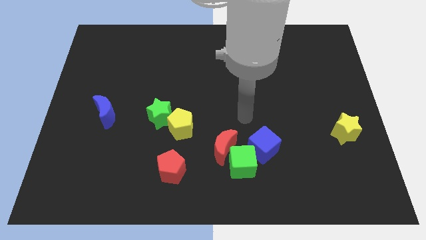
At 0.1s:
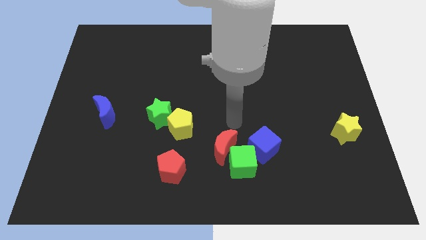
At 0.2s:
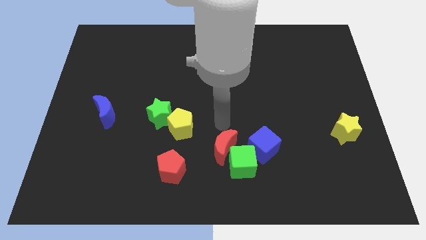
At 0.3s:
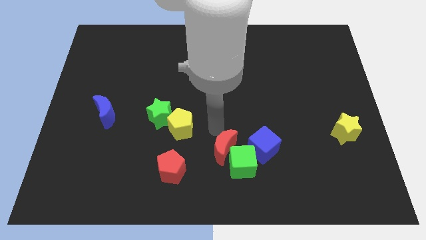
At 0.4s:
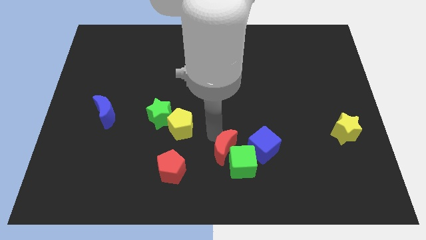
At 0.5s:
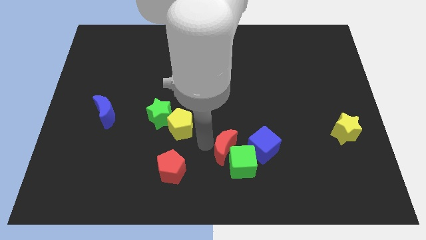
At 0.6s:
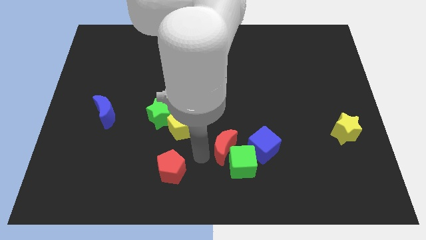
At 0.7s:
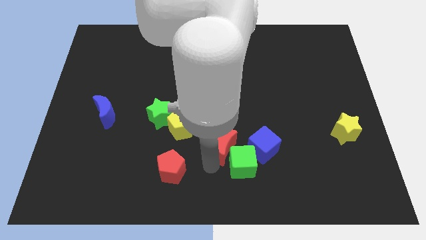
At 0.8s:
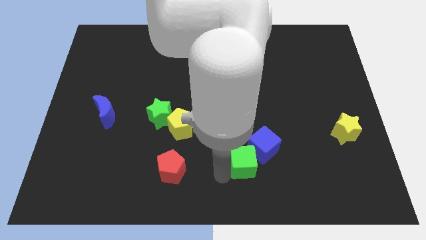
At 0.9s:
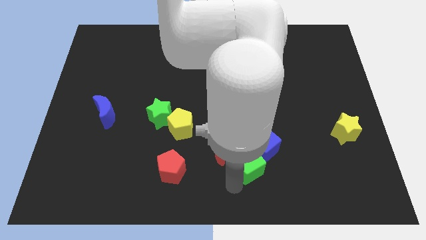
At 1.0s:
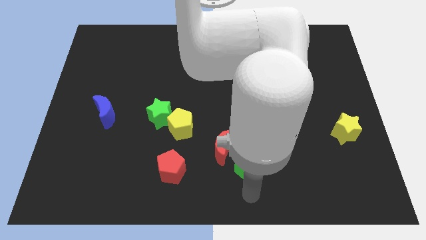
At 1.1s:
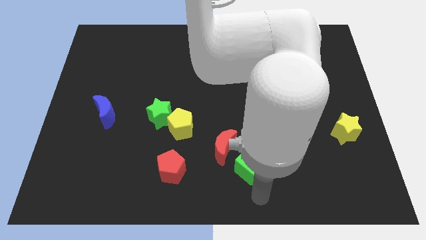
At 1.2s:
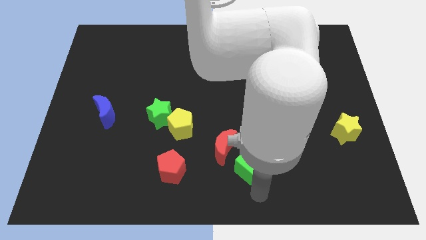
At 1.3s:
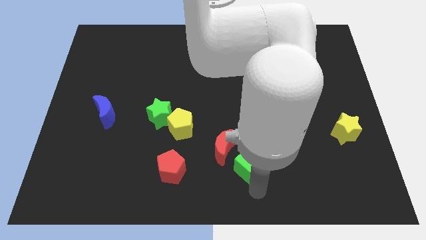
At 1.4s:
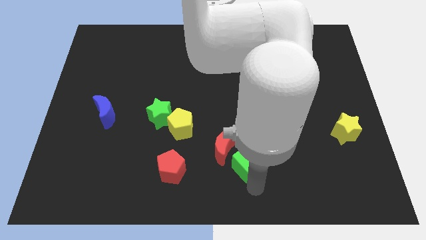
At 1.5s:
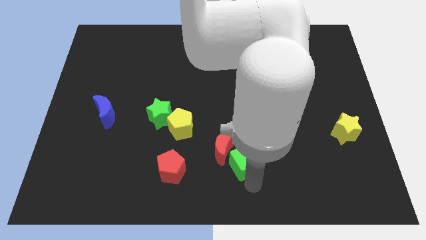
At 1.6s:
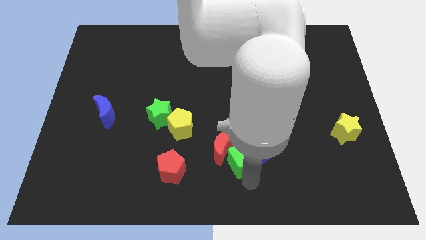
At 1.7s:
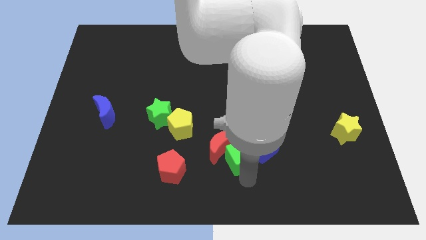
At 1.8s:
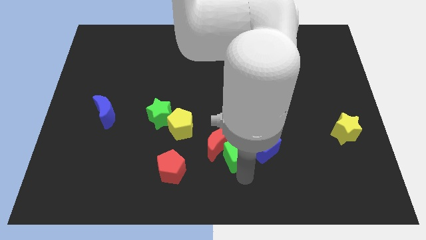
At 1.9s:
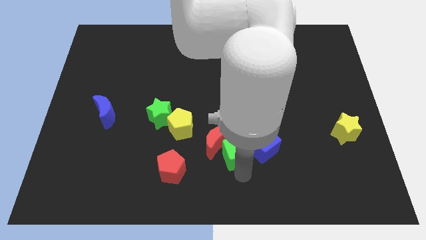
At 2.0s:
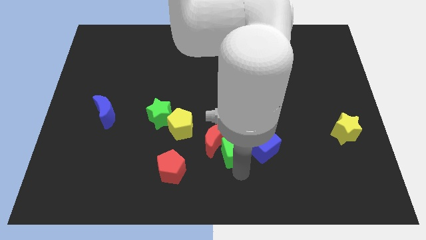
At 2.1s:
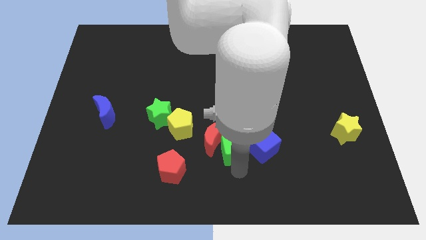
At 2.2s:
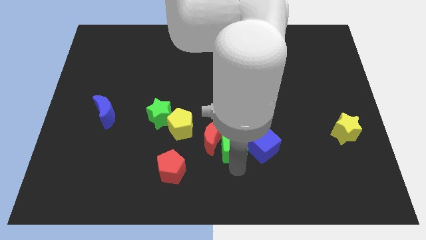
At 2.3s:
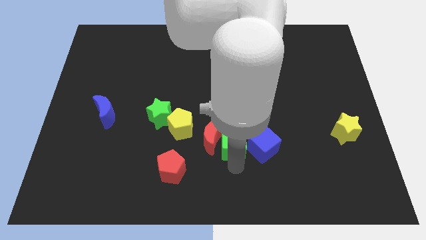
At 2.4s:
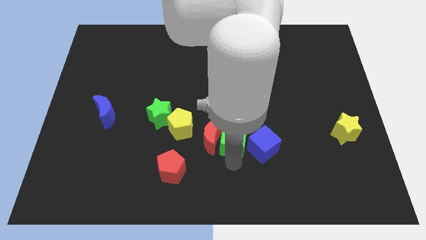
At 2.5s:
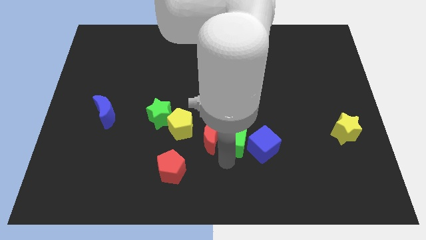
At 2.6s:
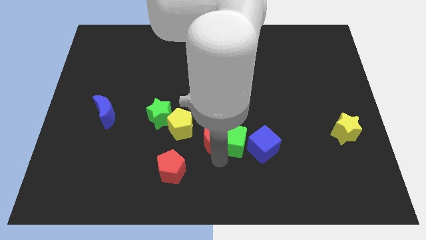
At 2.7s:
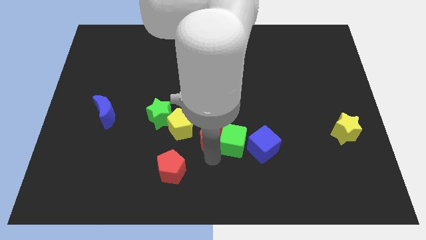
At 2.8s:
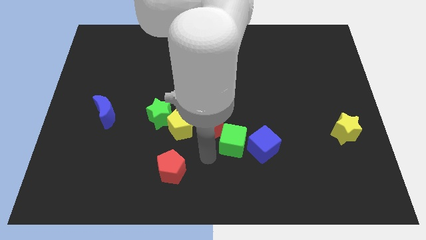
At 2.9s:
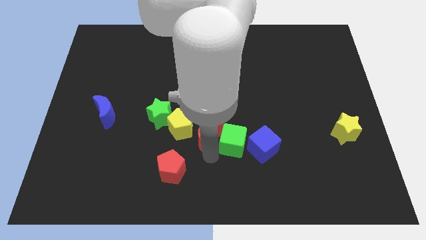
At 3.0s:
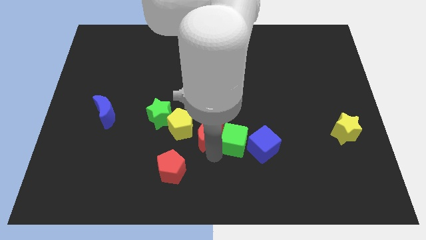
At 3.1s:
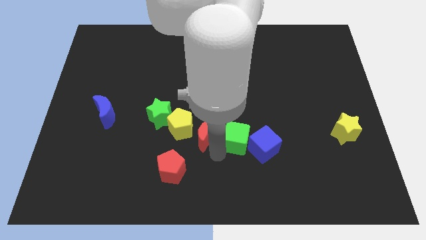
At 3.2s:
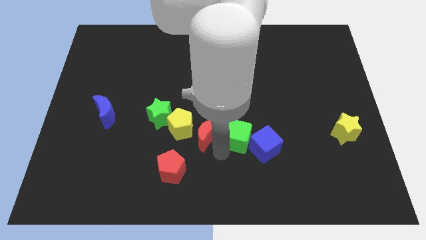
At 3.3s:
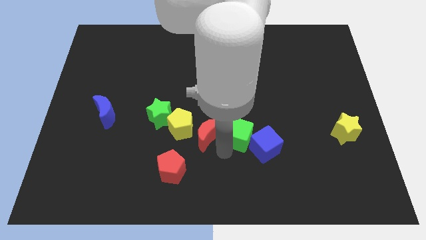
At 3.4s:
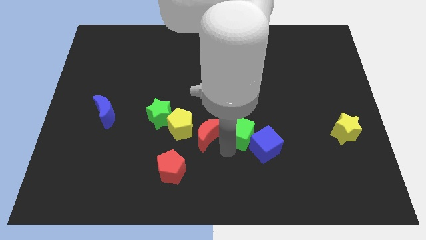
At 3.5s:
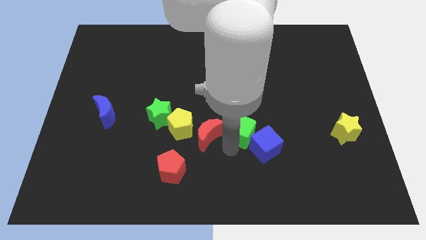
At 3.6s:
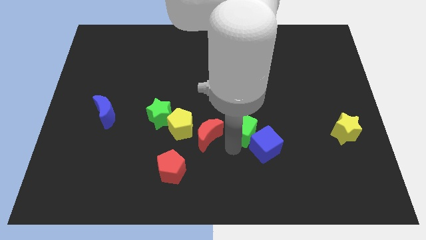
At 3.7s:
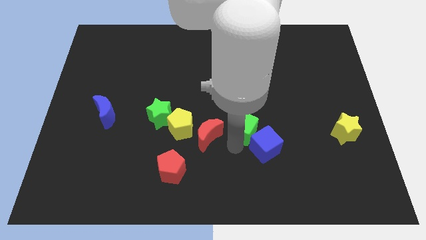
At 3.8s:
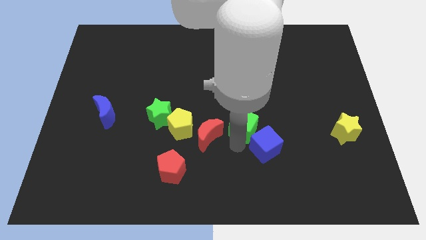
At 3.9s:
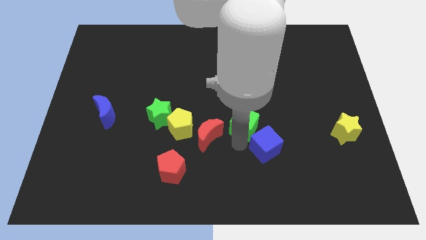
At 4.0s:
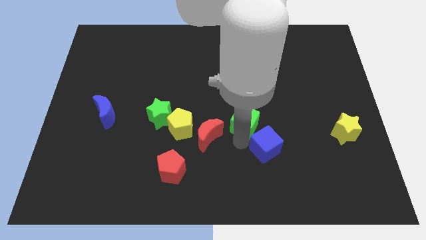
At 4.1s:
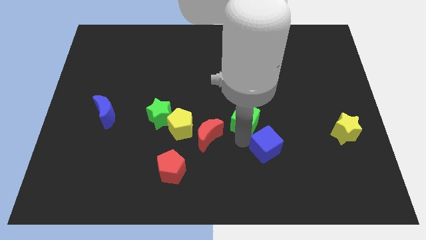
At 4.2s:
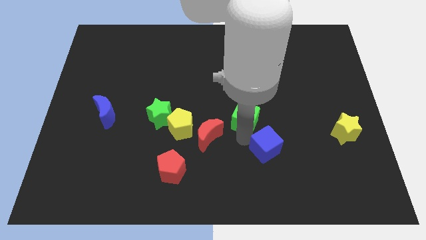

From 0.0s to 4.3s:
slightly slide the green cube upwards and to the right diagonally

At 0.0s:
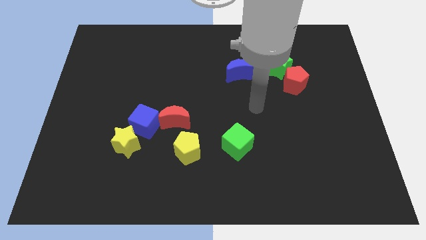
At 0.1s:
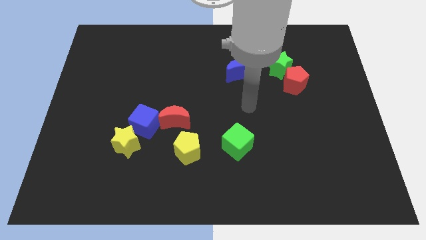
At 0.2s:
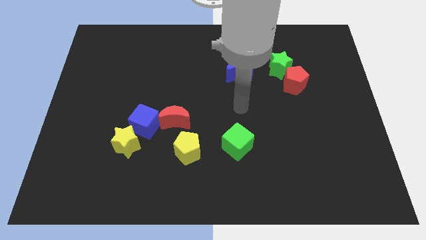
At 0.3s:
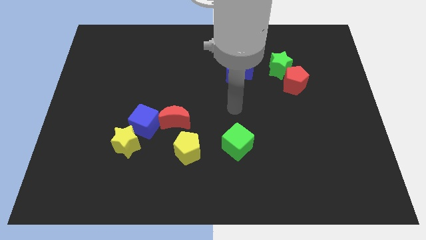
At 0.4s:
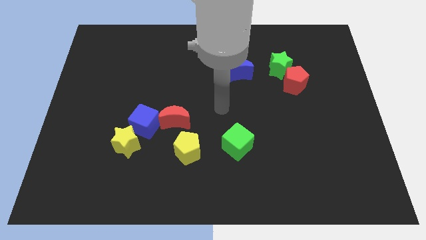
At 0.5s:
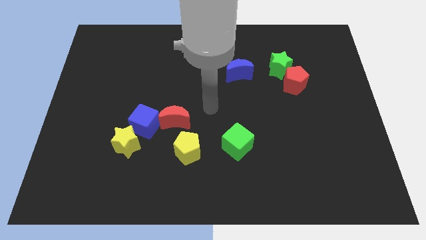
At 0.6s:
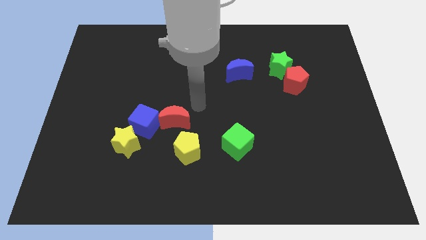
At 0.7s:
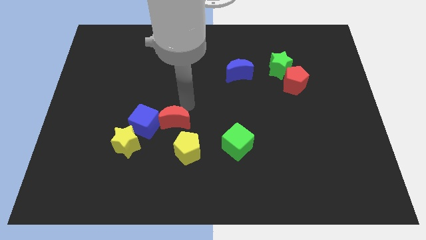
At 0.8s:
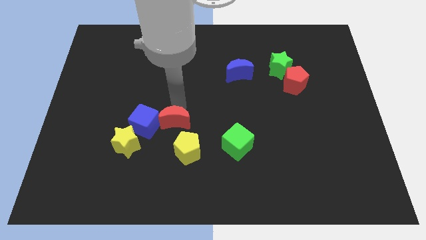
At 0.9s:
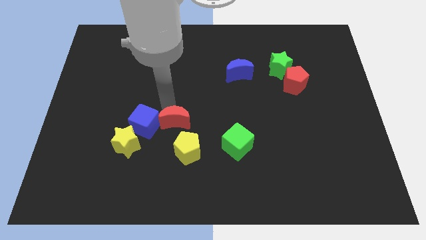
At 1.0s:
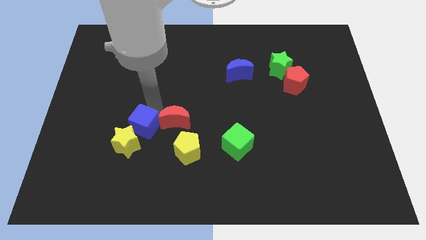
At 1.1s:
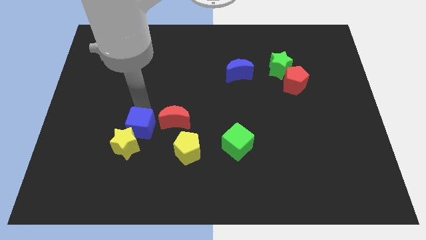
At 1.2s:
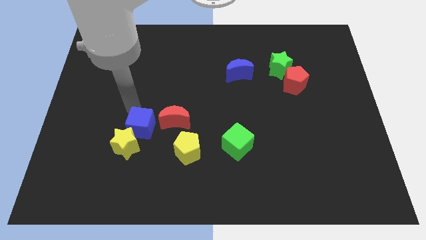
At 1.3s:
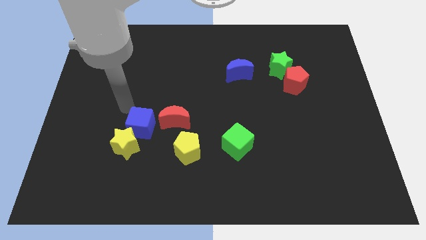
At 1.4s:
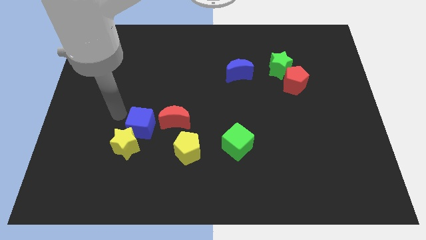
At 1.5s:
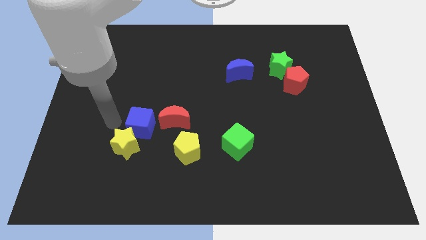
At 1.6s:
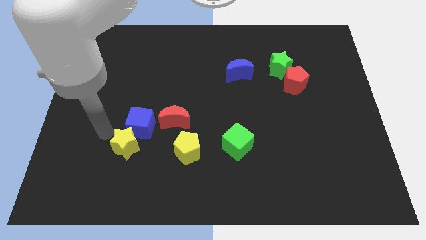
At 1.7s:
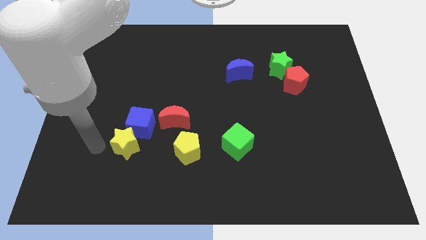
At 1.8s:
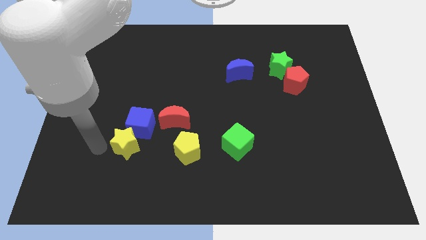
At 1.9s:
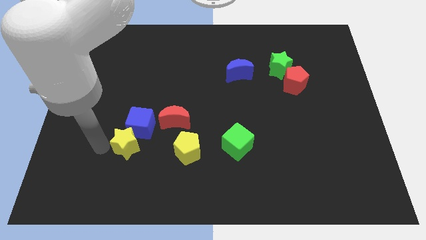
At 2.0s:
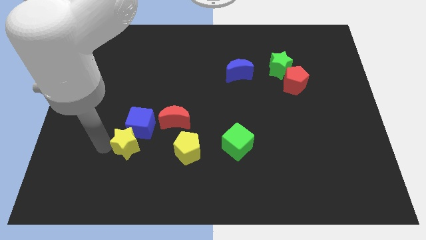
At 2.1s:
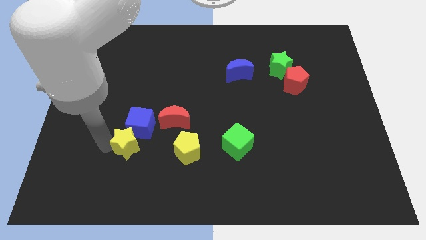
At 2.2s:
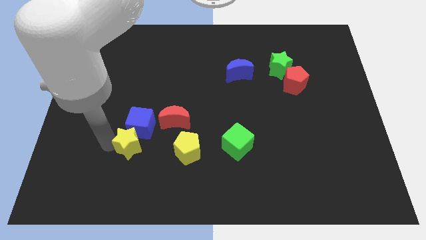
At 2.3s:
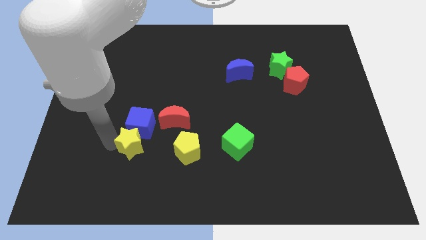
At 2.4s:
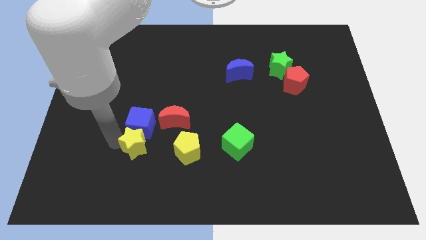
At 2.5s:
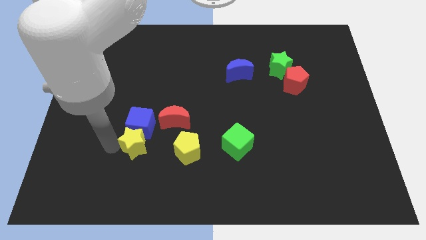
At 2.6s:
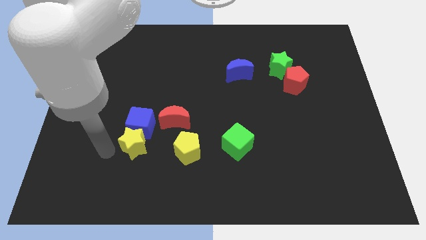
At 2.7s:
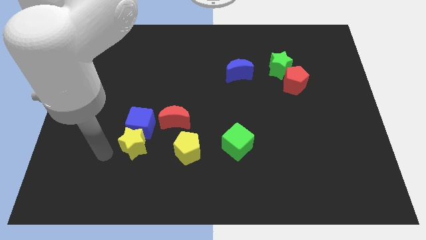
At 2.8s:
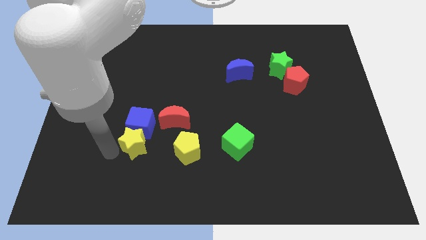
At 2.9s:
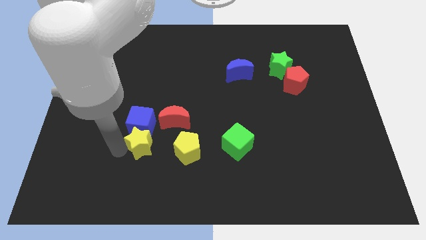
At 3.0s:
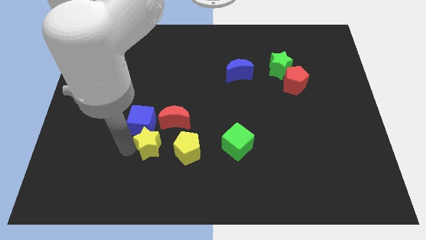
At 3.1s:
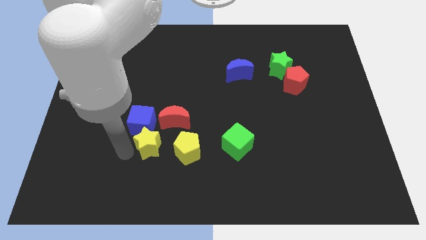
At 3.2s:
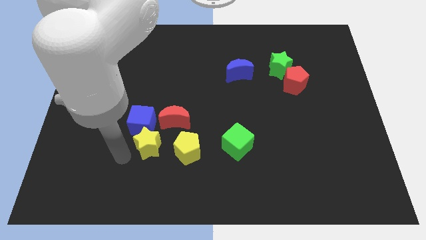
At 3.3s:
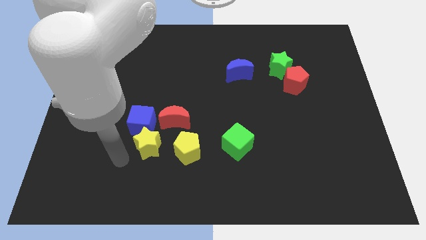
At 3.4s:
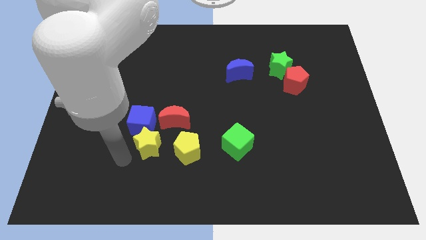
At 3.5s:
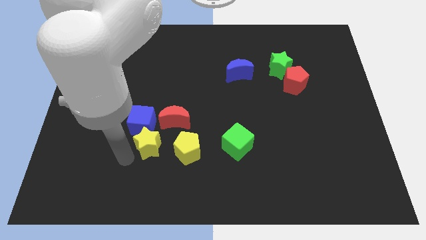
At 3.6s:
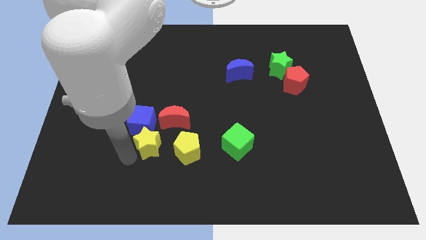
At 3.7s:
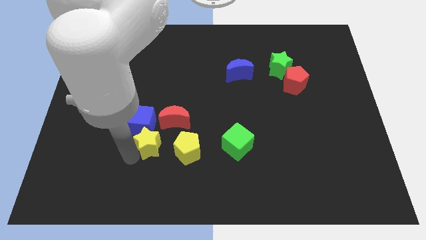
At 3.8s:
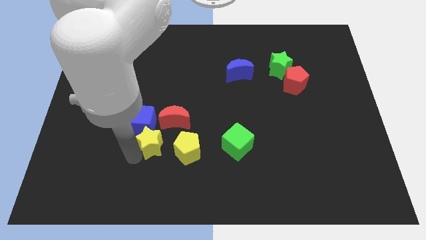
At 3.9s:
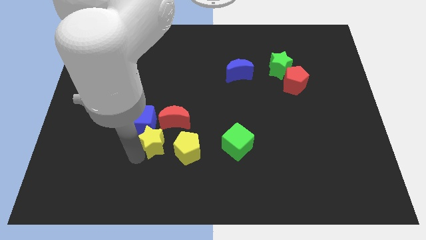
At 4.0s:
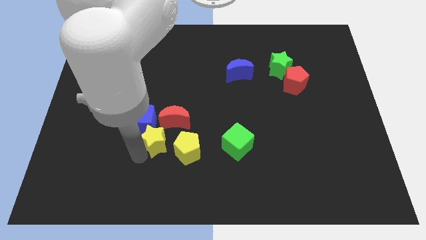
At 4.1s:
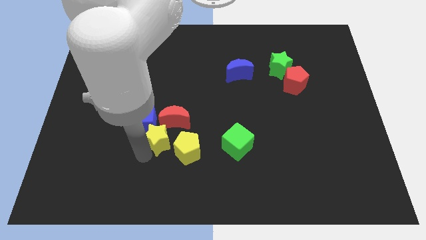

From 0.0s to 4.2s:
push the yellow star slightly to the right
